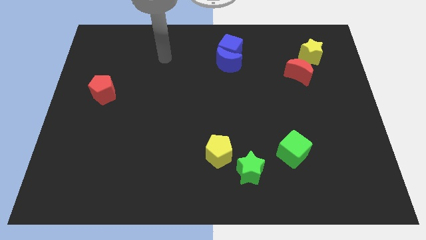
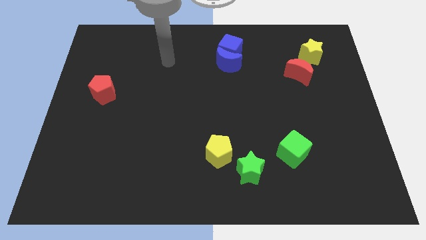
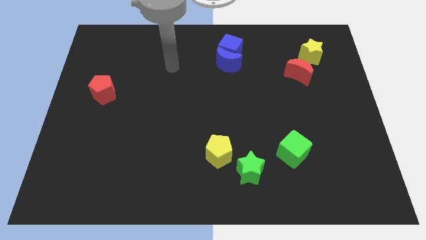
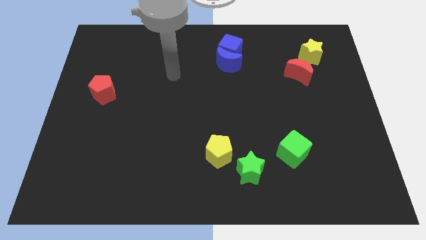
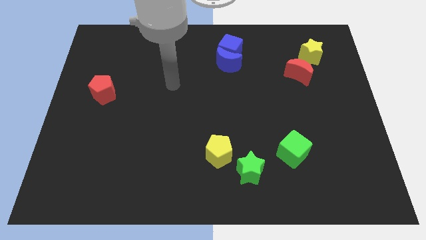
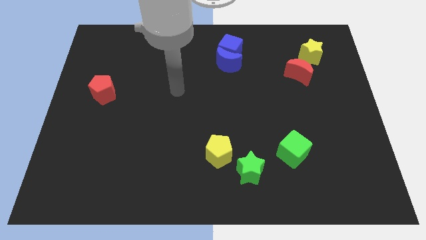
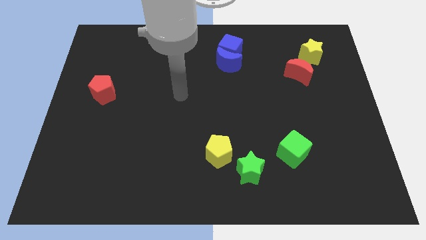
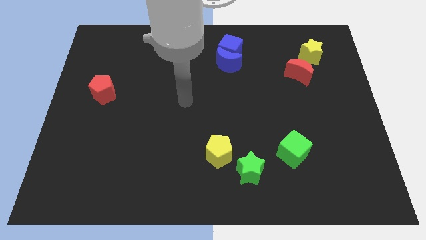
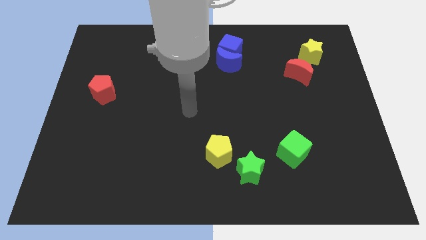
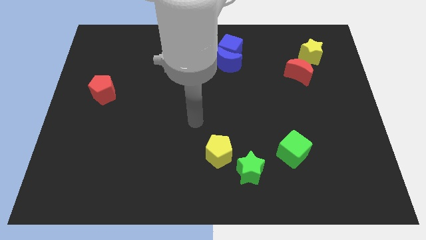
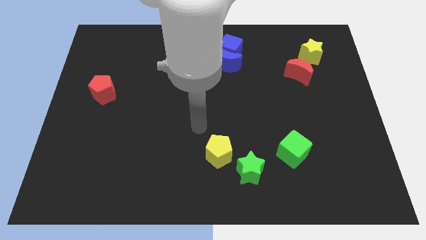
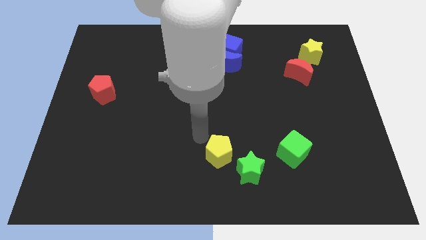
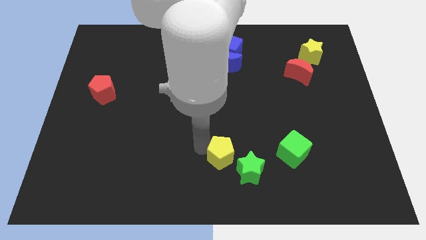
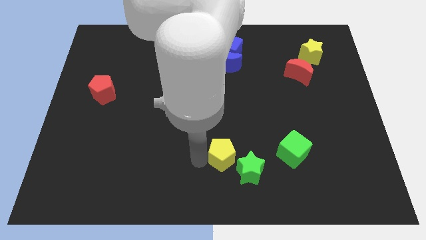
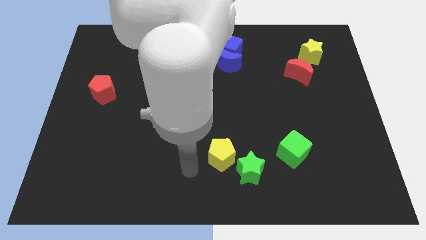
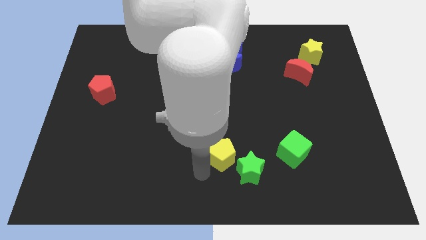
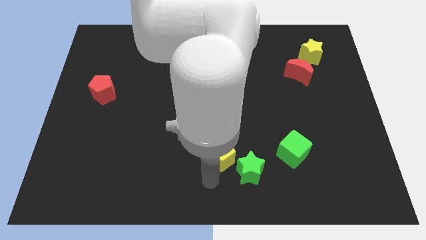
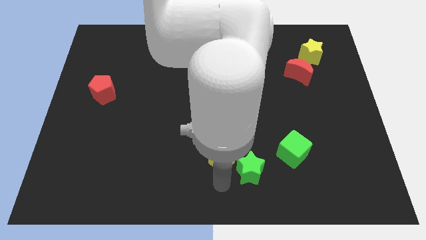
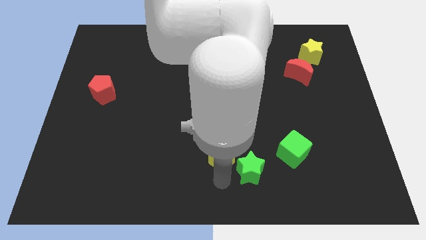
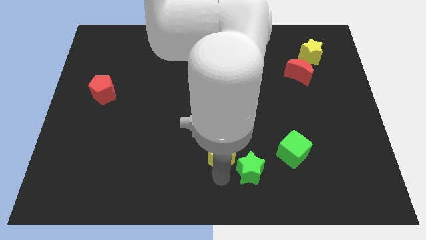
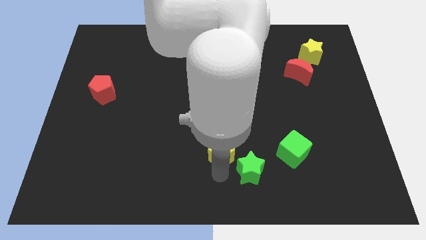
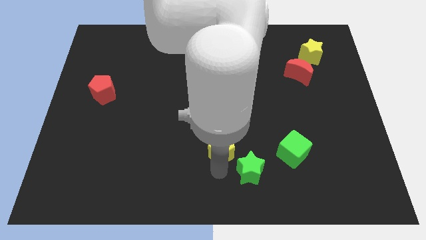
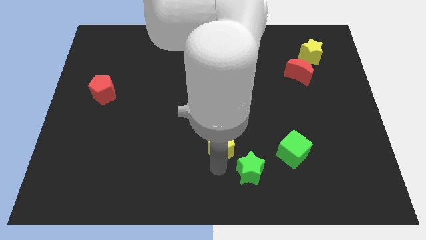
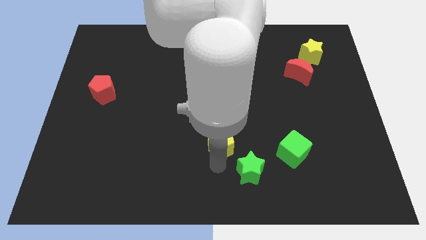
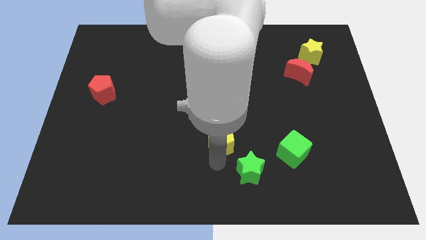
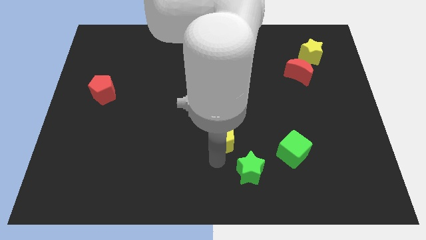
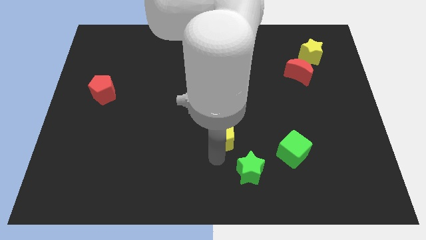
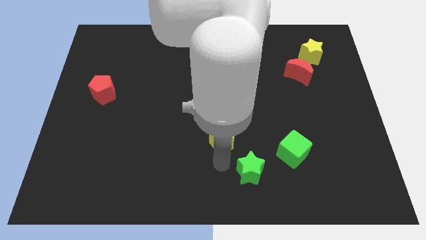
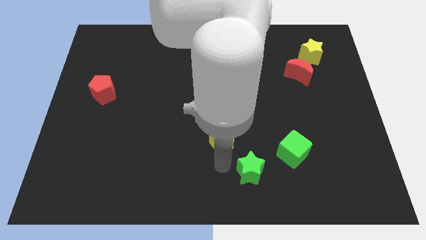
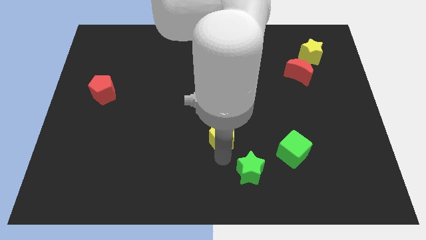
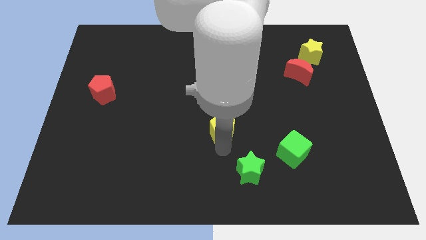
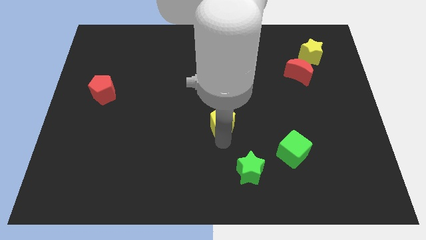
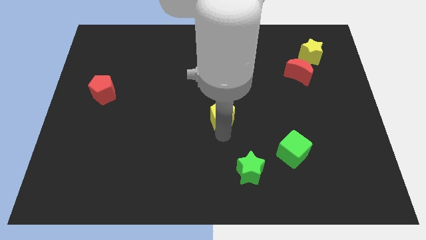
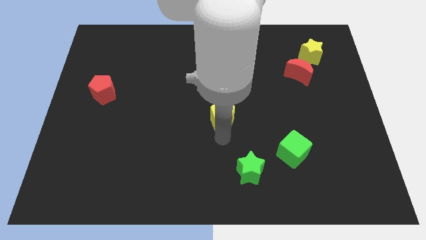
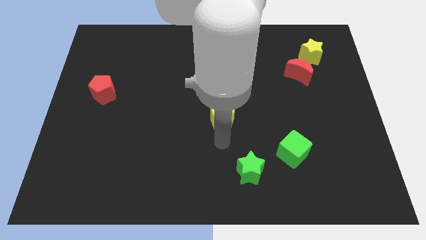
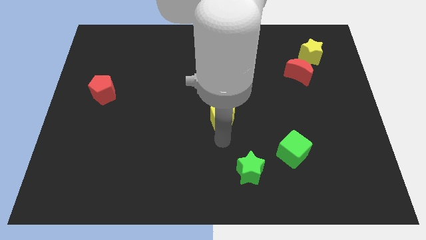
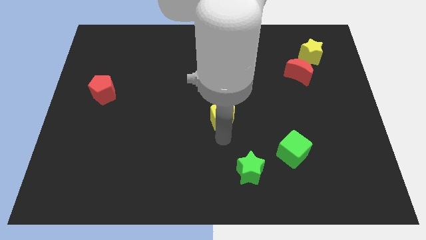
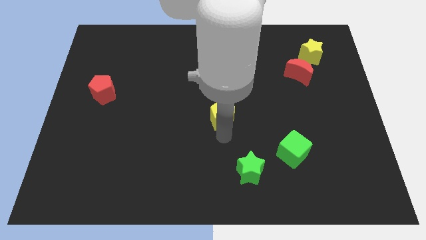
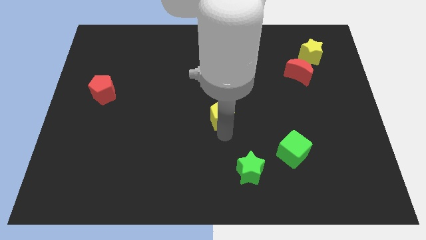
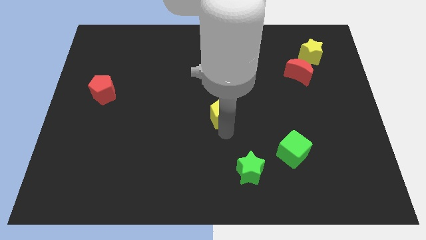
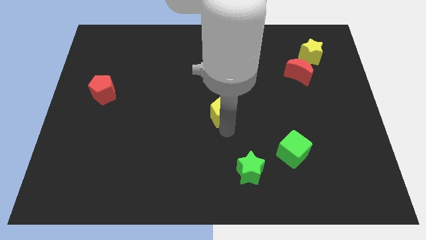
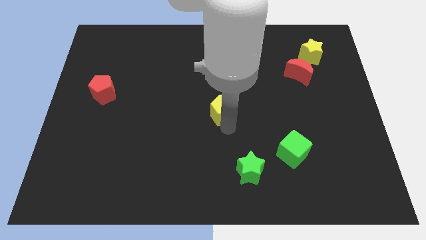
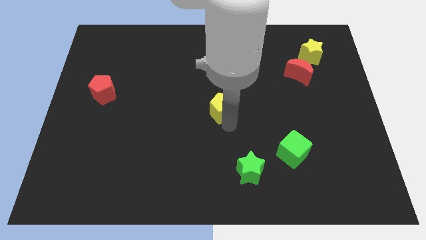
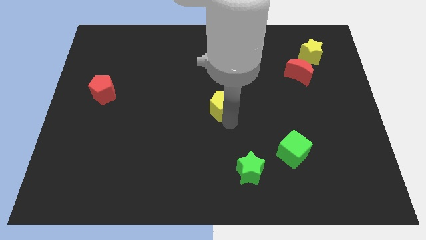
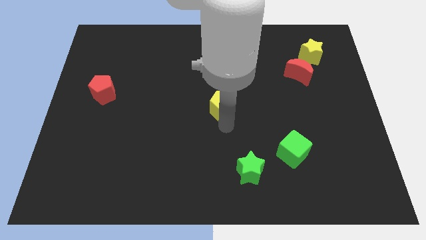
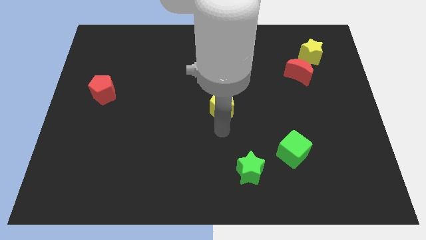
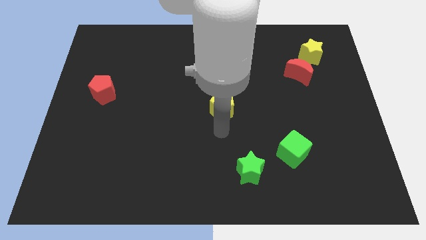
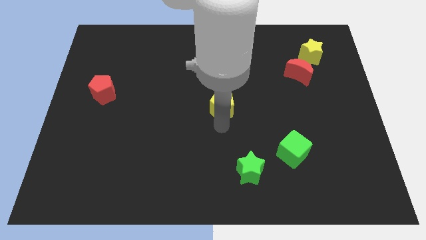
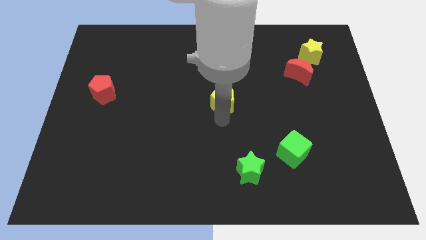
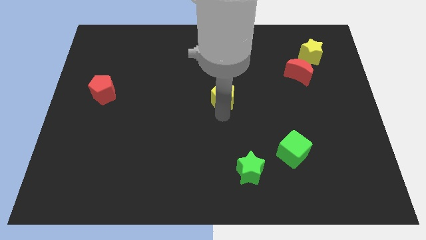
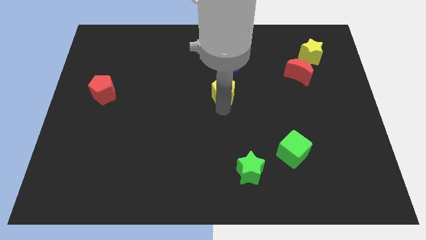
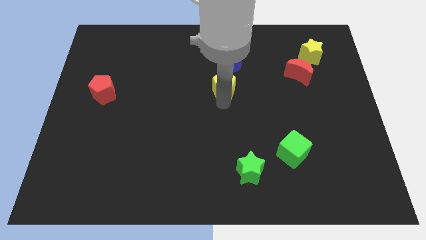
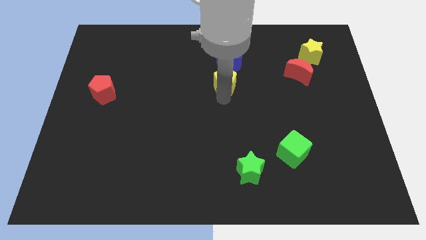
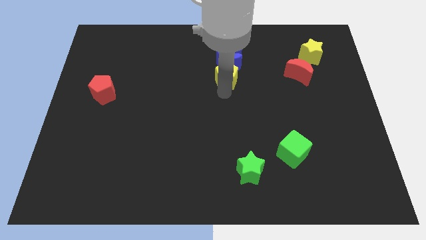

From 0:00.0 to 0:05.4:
slide the yellow pentagon to the blue moon

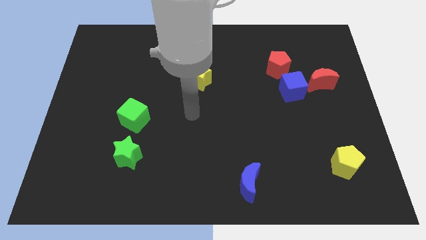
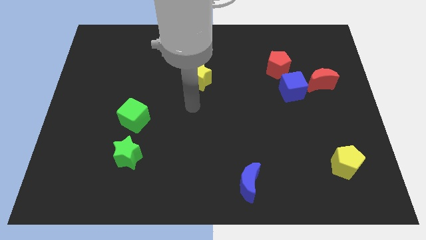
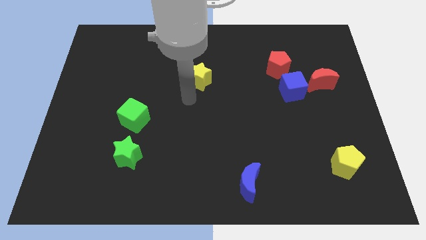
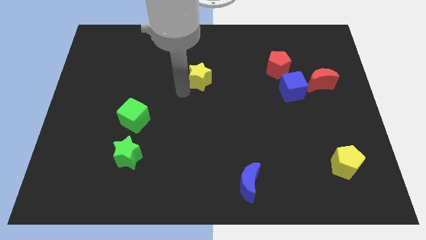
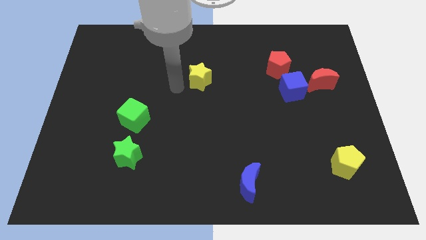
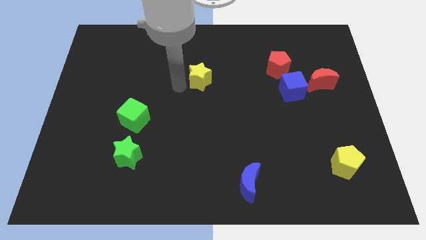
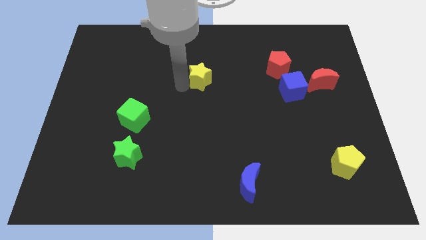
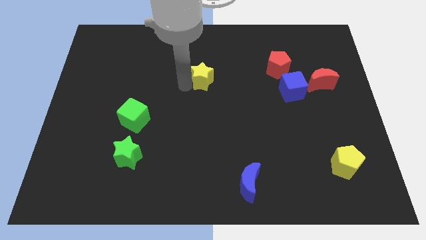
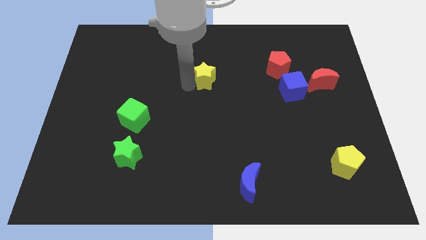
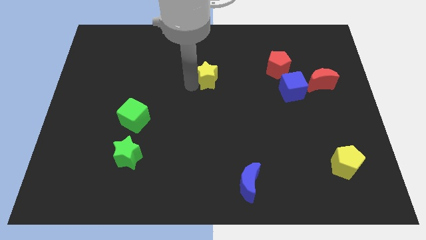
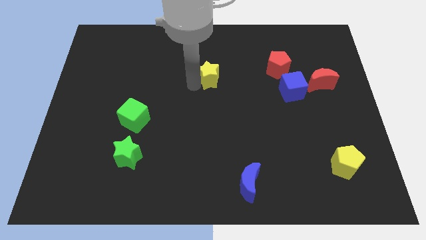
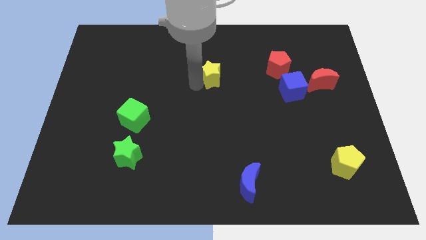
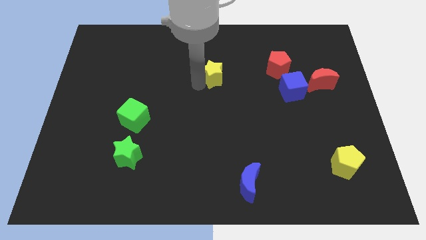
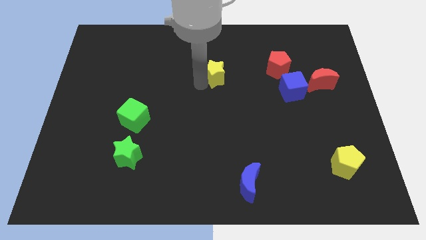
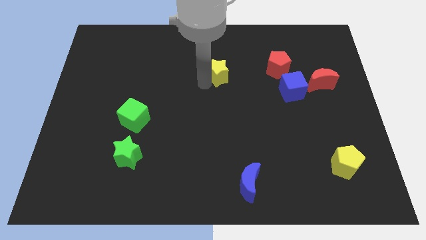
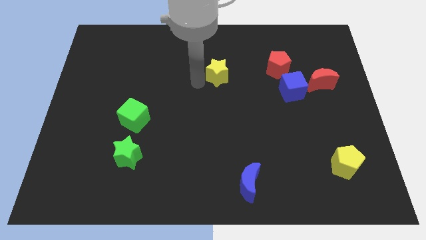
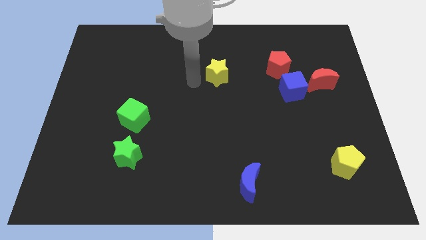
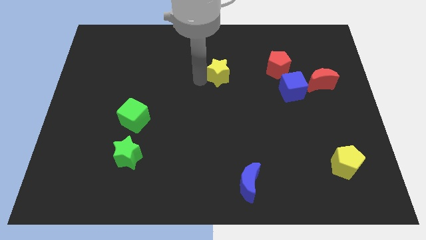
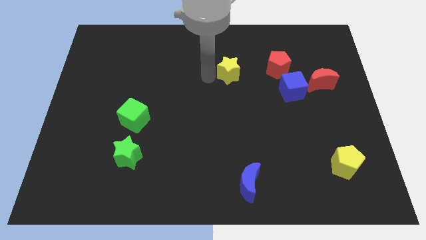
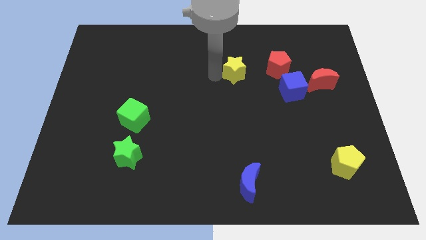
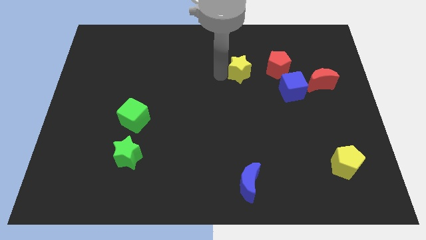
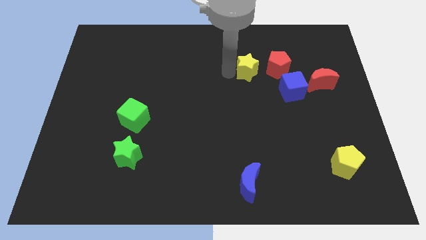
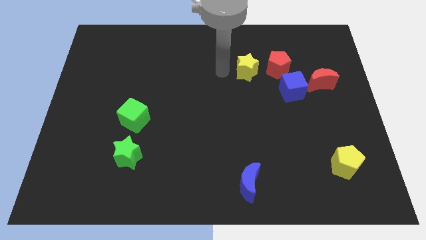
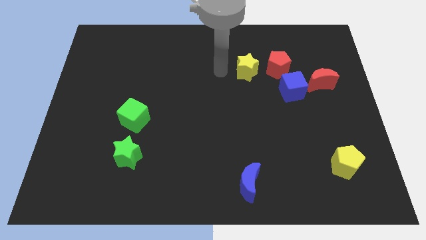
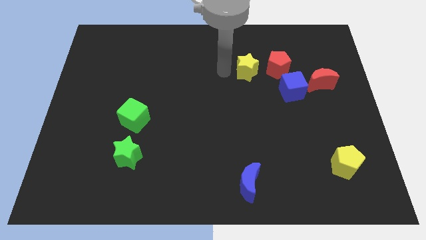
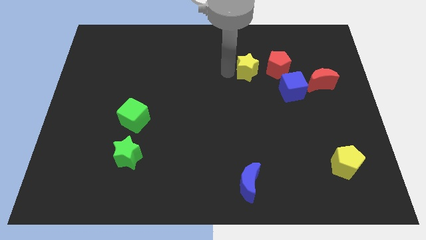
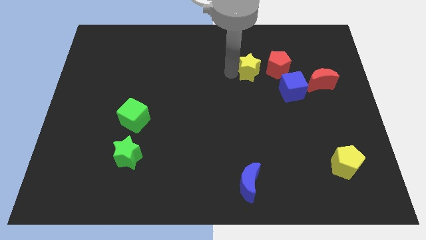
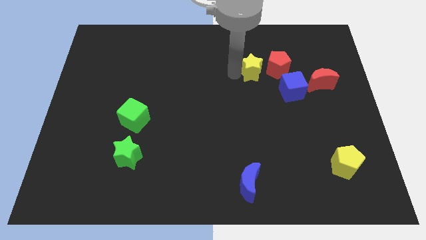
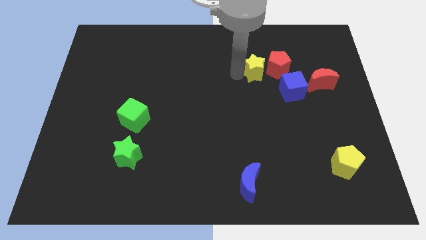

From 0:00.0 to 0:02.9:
push the yellow star to the red pentagon
